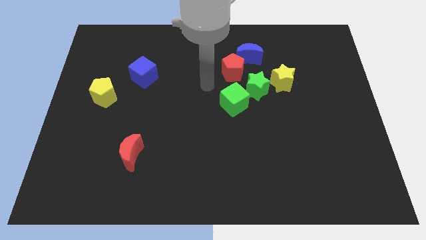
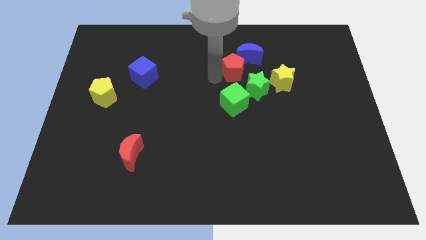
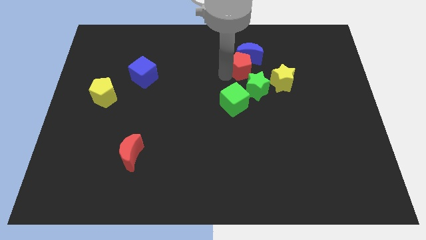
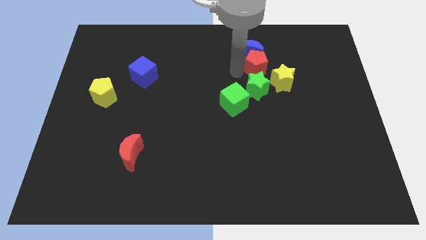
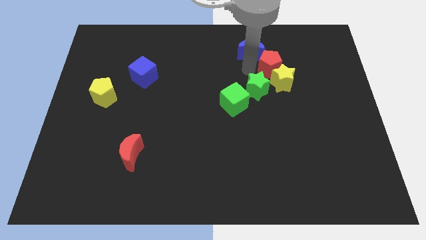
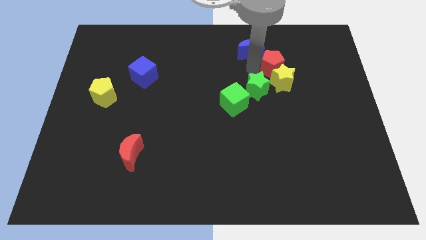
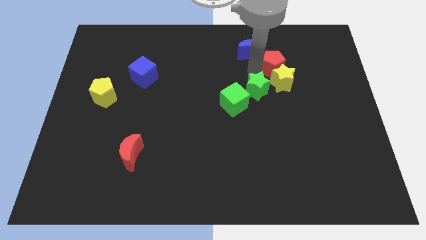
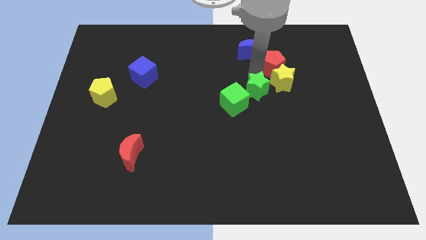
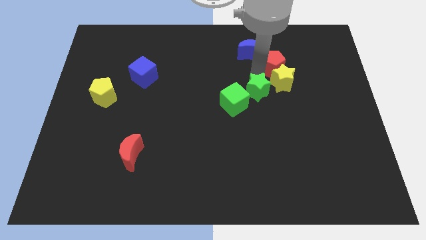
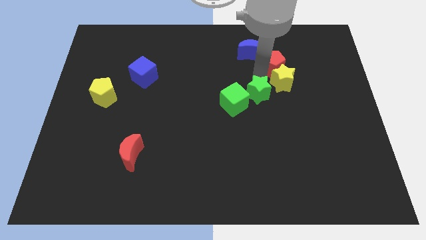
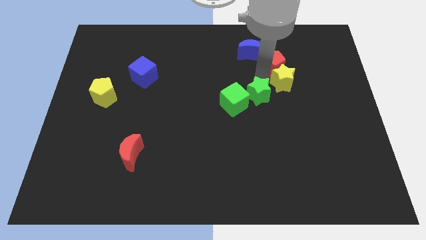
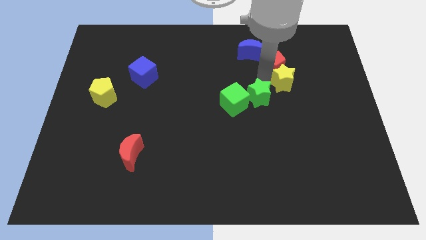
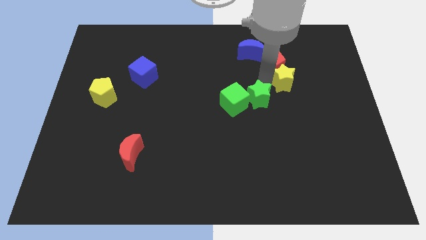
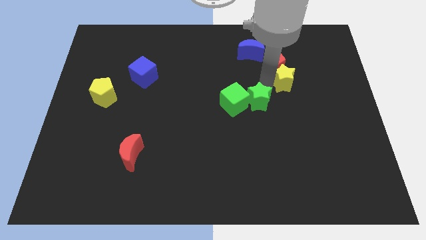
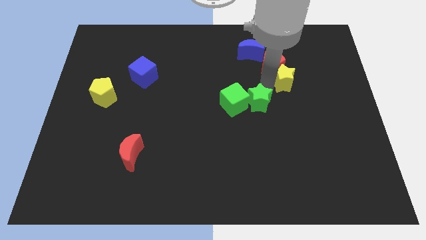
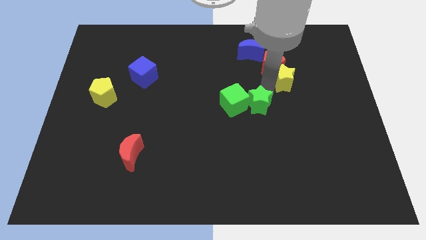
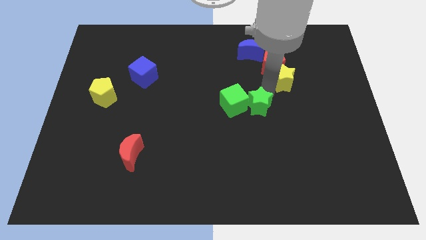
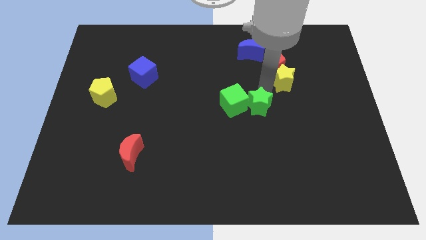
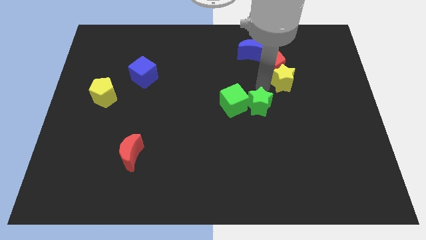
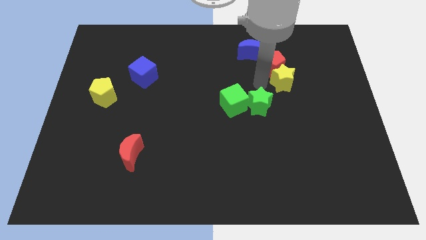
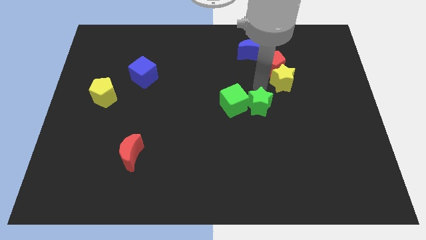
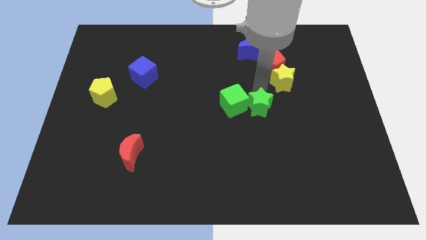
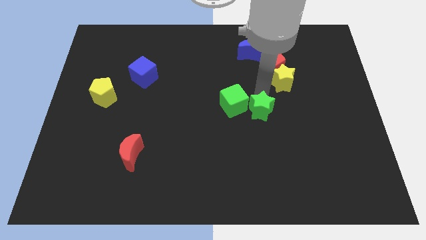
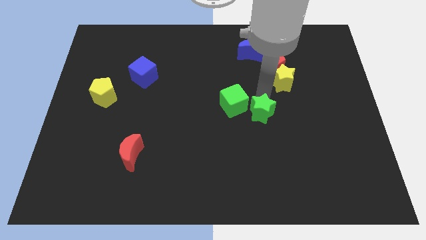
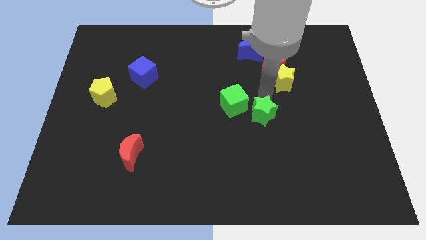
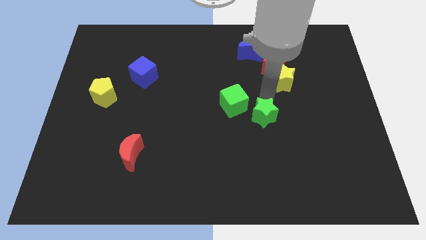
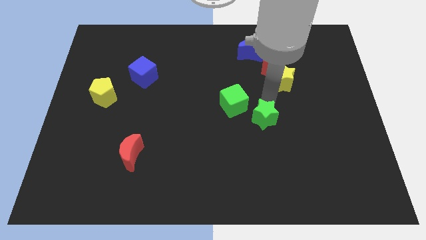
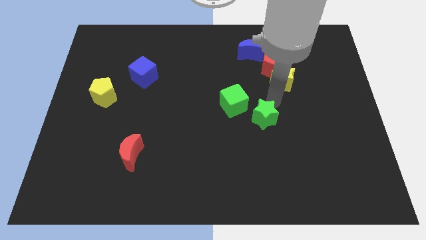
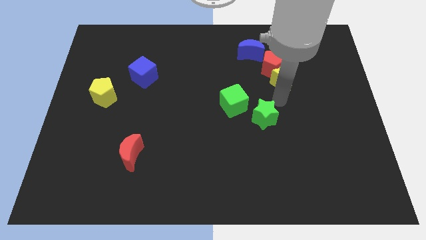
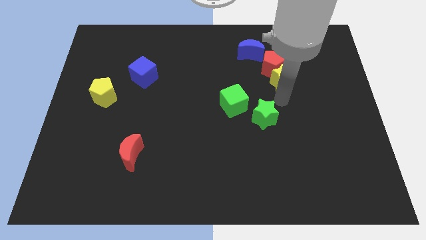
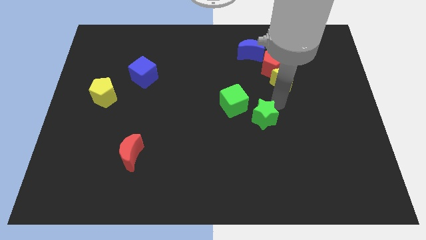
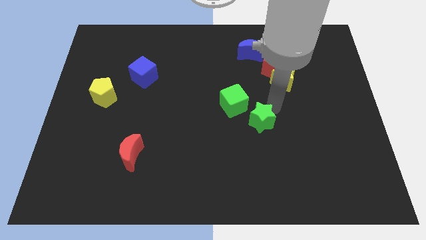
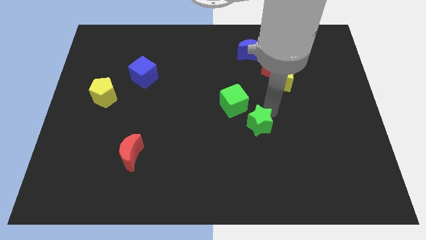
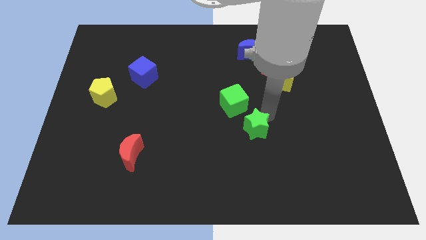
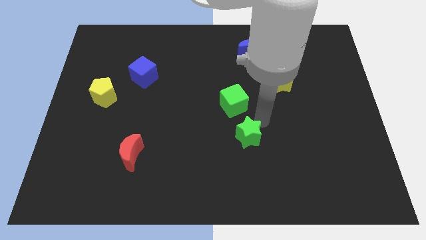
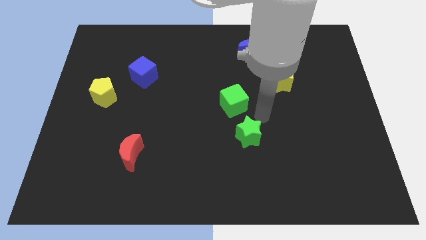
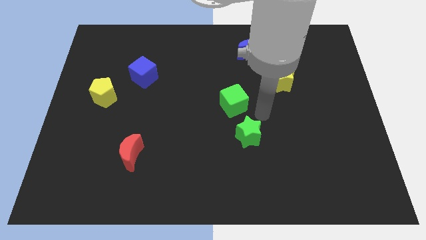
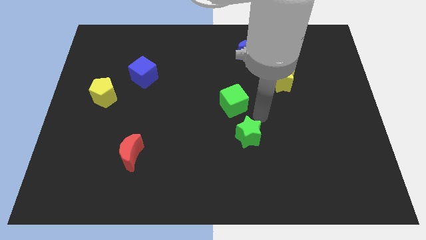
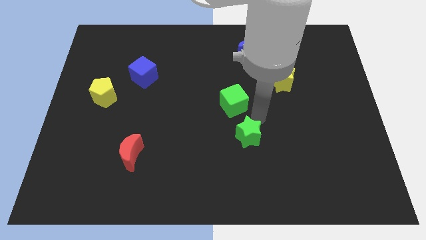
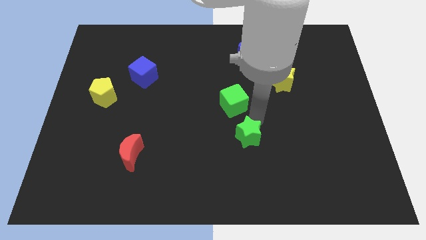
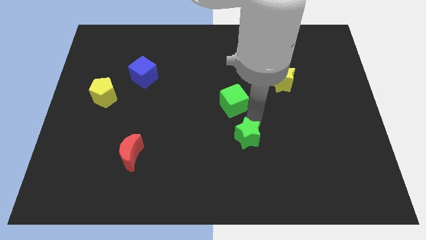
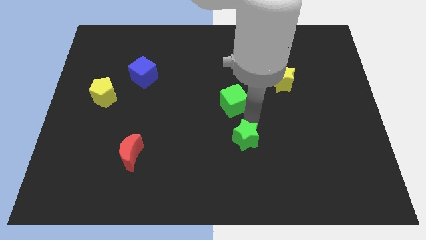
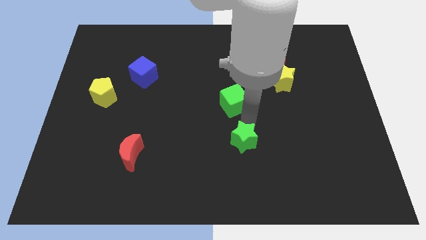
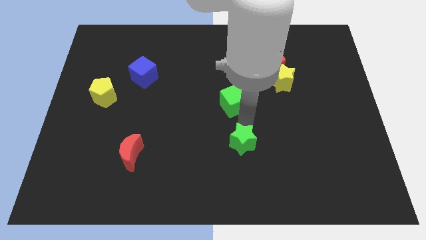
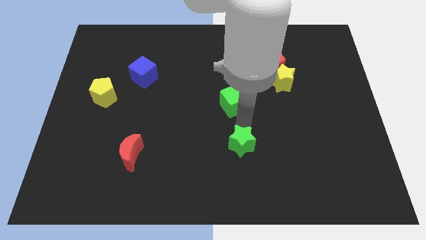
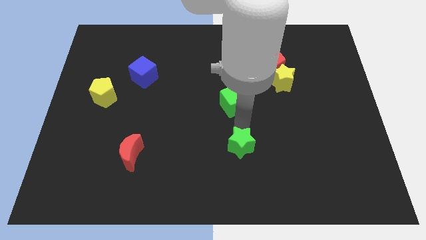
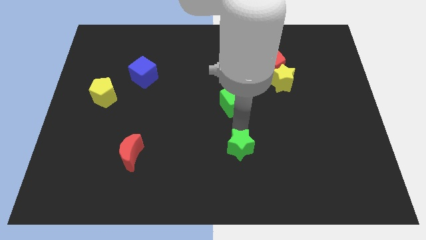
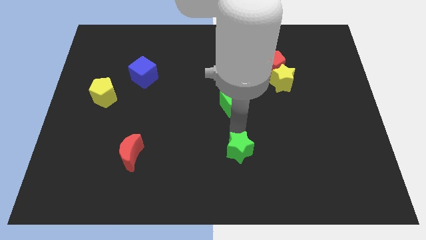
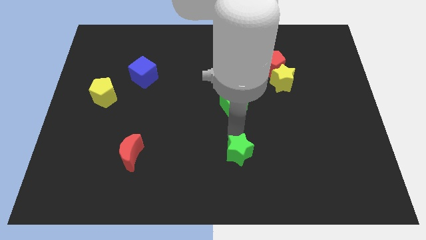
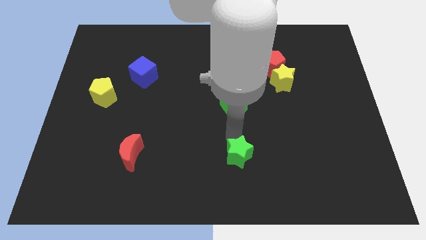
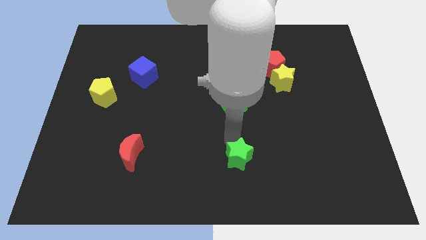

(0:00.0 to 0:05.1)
move the green star to the bottom

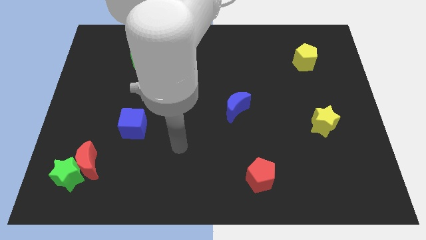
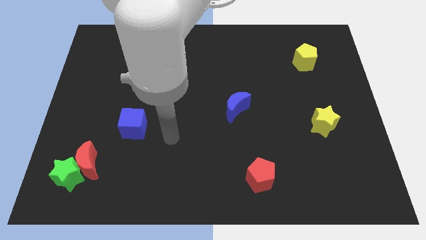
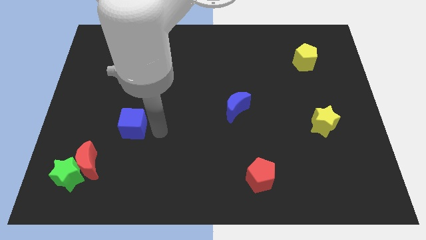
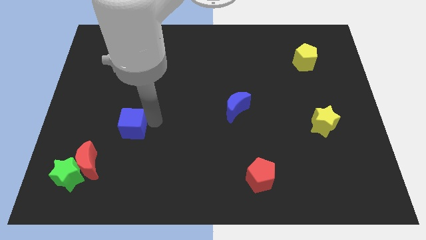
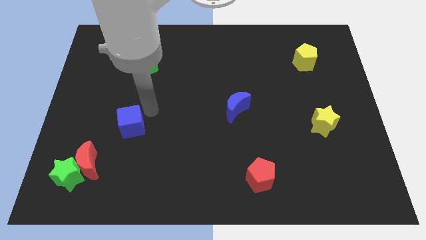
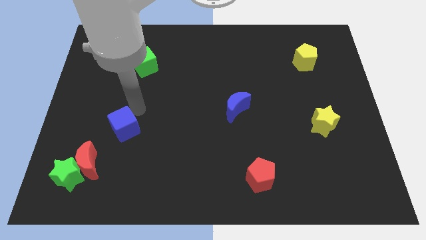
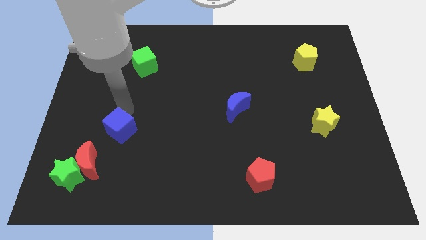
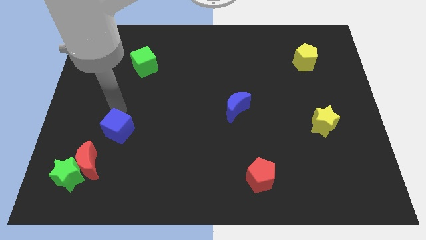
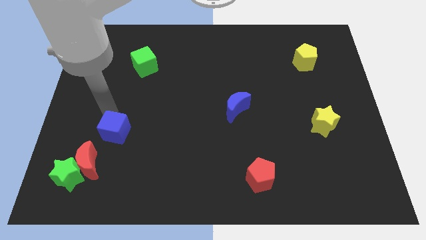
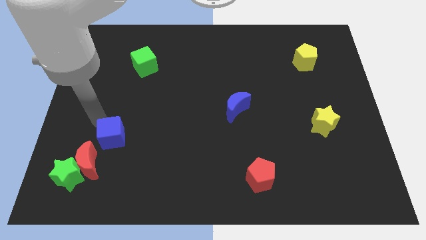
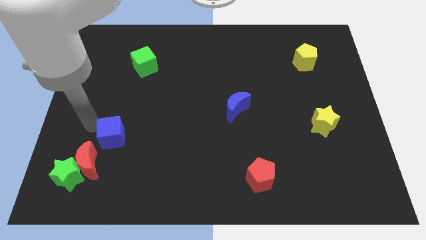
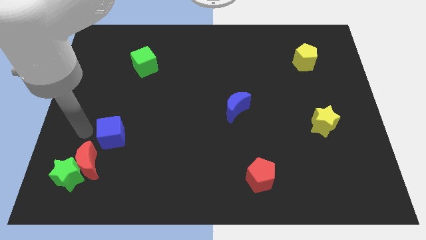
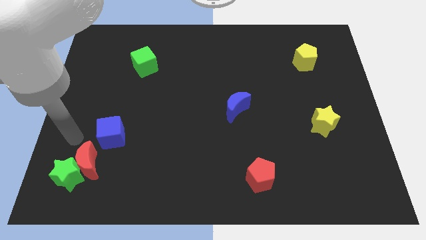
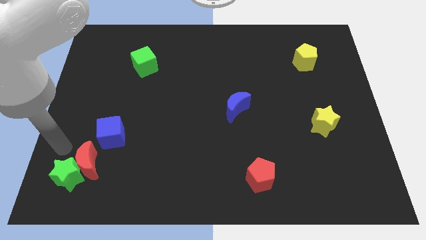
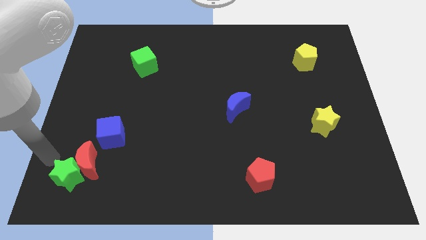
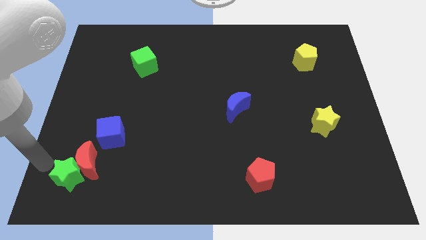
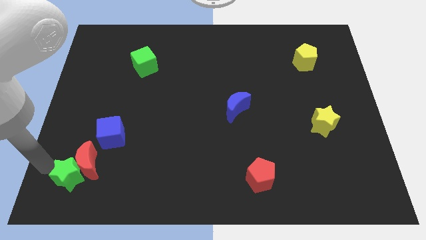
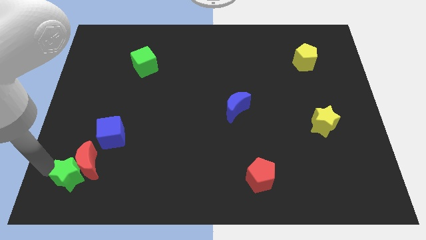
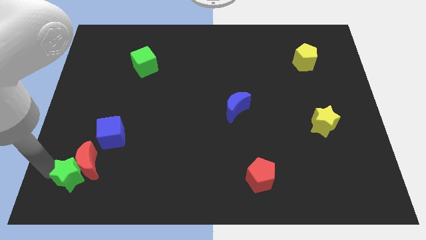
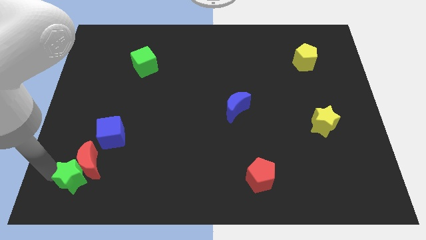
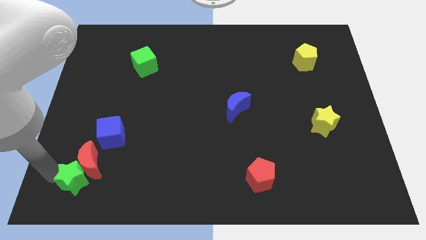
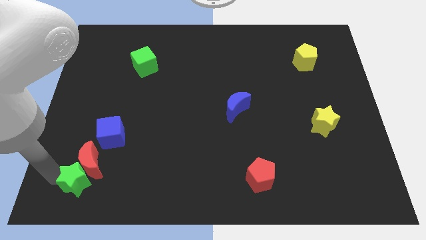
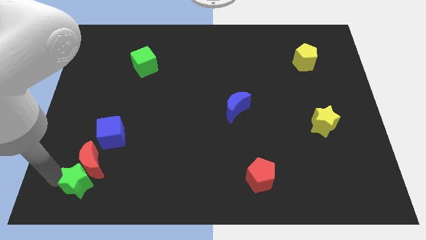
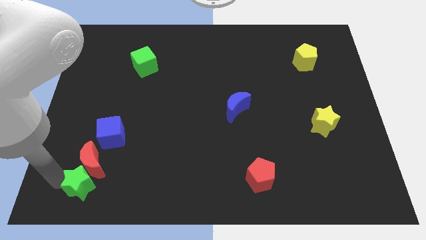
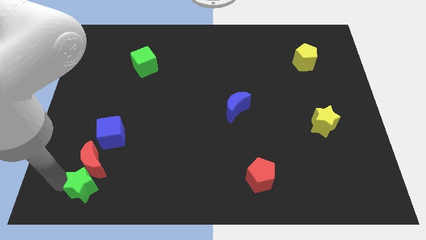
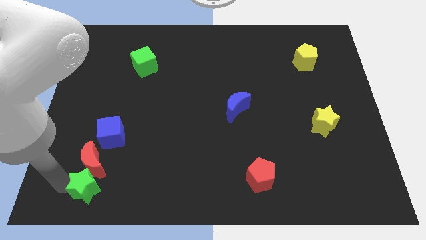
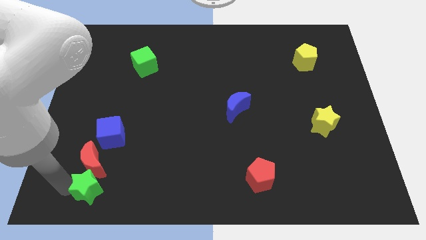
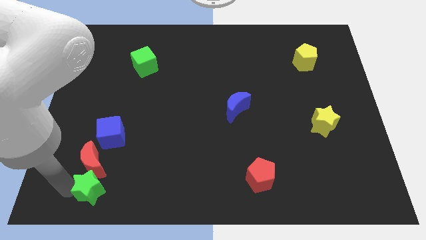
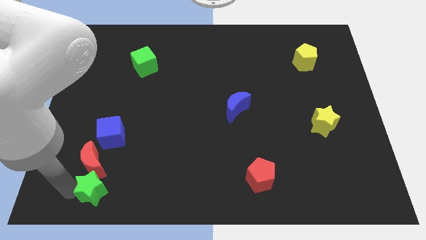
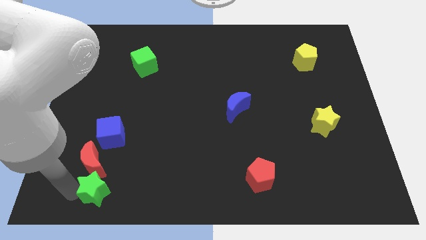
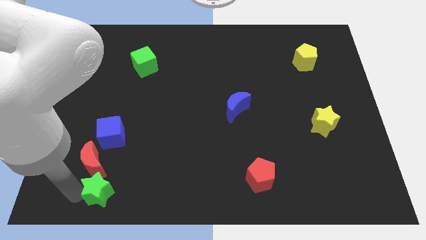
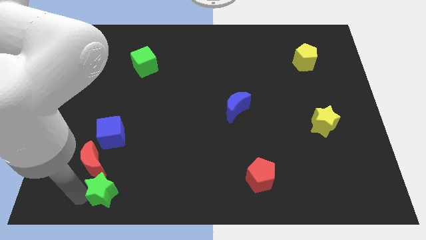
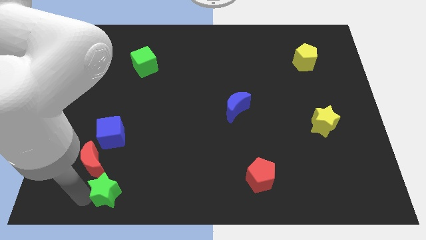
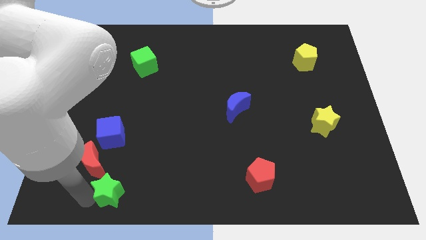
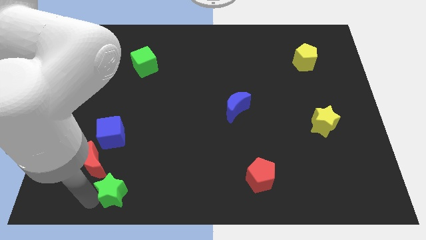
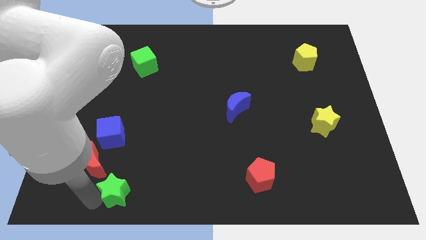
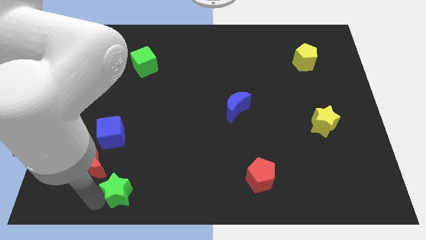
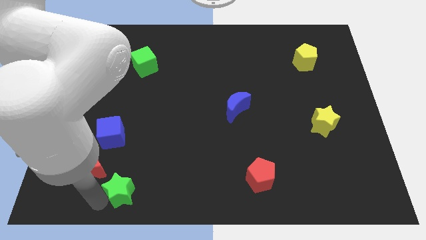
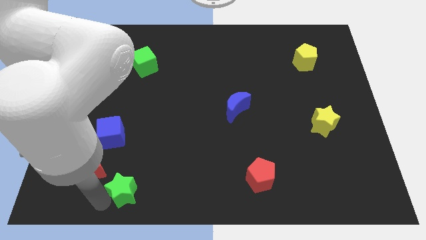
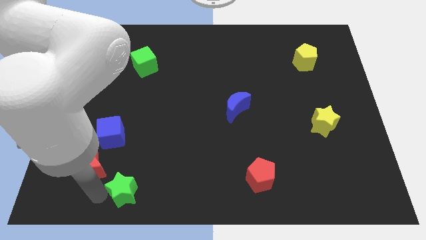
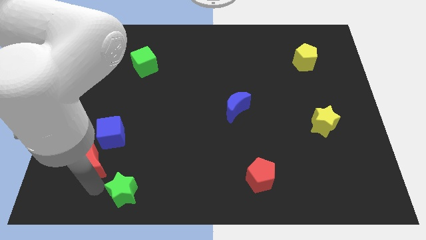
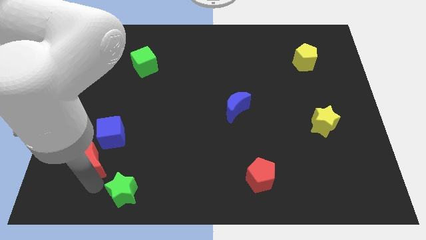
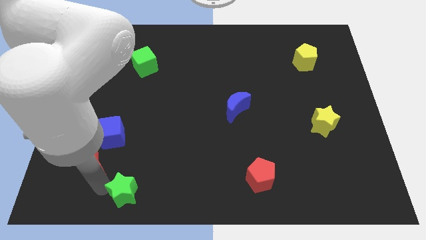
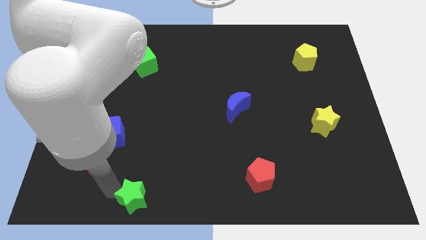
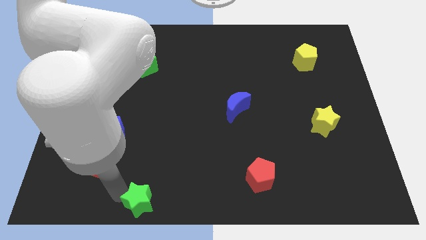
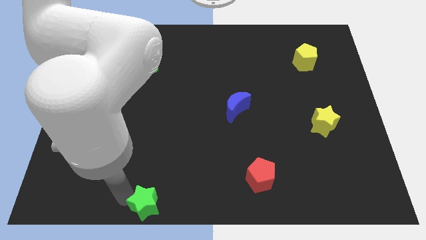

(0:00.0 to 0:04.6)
slide the green star to the bottom
